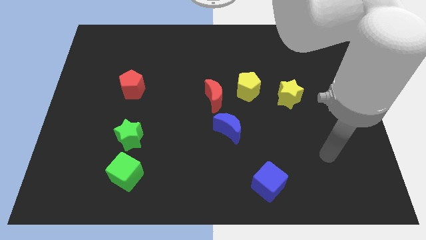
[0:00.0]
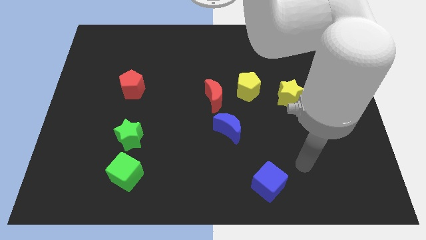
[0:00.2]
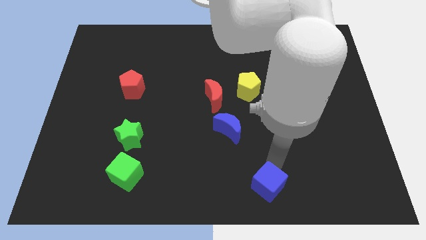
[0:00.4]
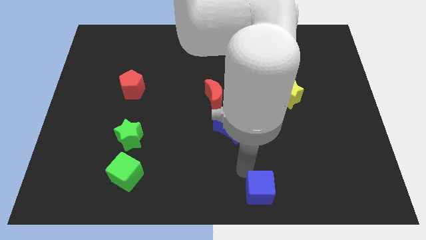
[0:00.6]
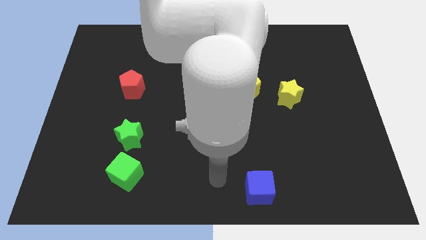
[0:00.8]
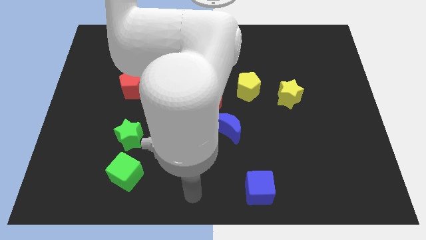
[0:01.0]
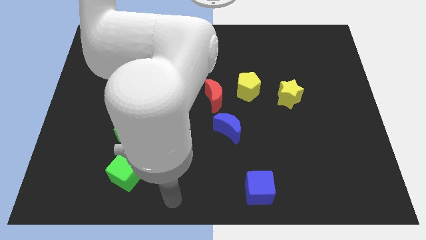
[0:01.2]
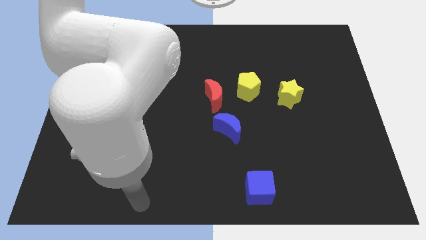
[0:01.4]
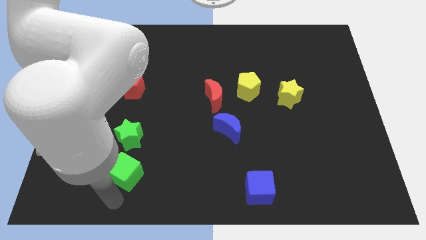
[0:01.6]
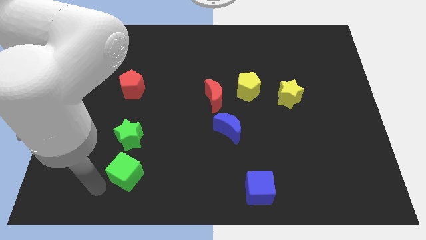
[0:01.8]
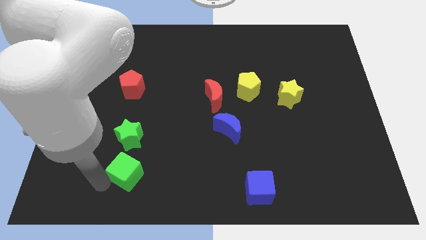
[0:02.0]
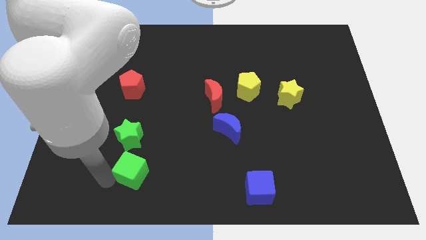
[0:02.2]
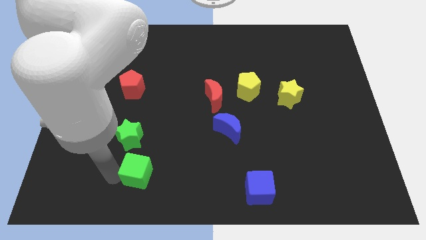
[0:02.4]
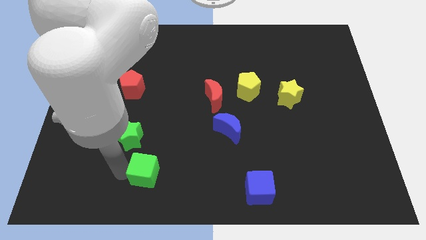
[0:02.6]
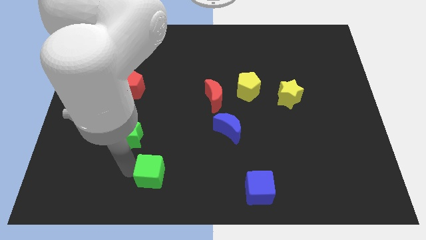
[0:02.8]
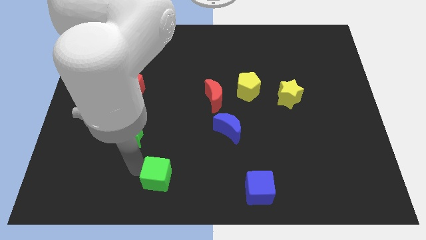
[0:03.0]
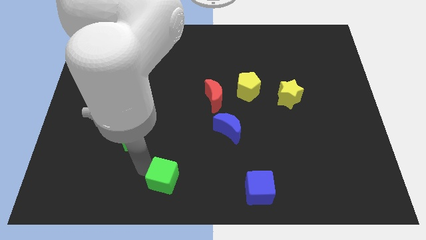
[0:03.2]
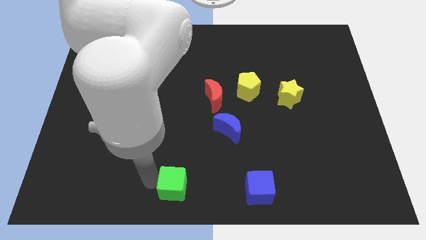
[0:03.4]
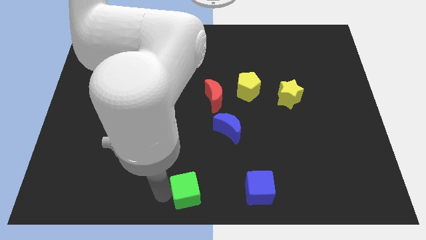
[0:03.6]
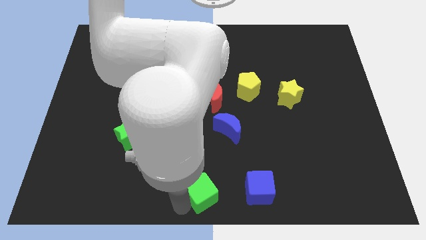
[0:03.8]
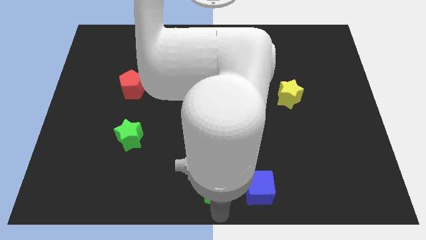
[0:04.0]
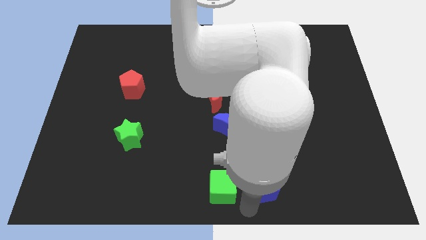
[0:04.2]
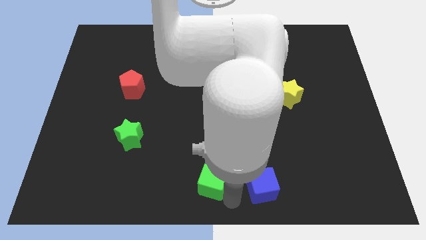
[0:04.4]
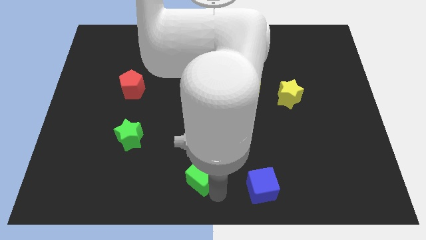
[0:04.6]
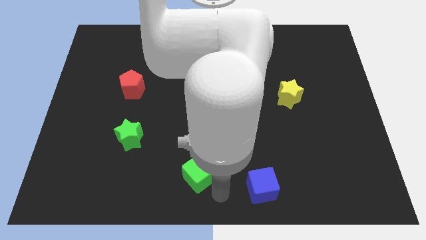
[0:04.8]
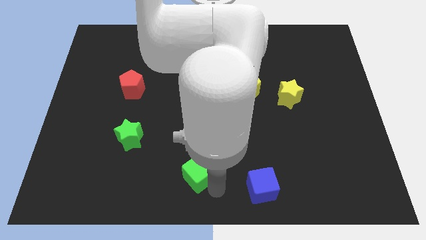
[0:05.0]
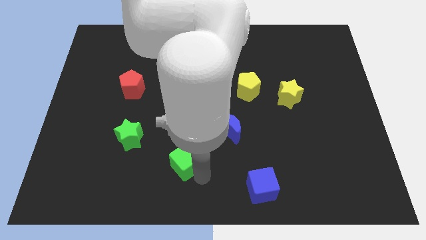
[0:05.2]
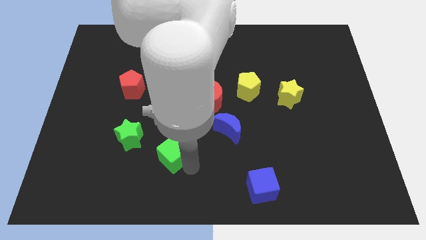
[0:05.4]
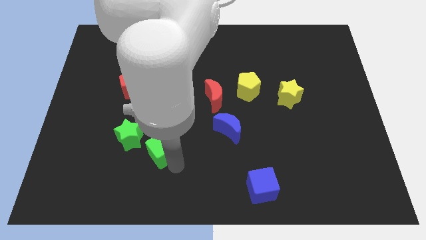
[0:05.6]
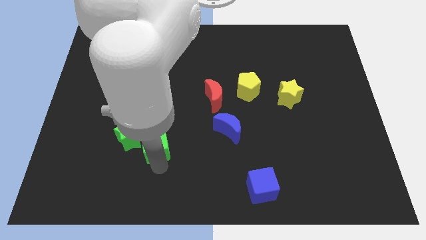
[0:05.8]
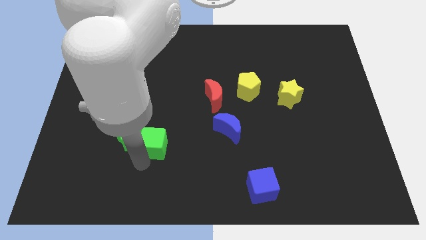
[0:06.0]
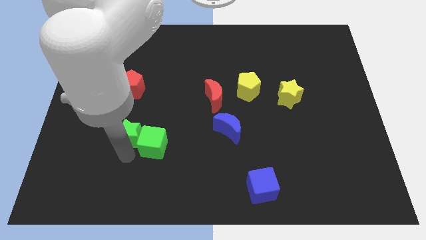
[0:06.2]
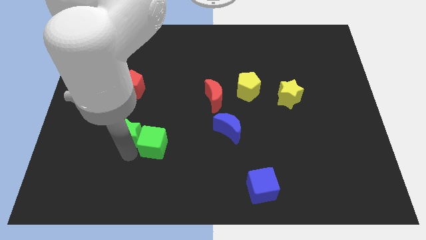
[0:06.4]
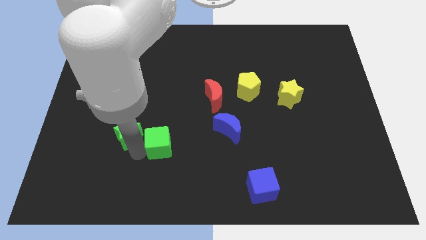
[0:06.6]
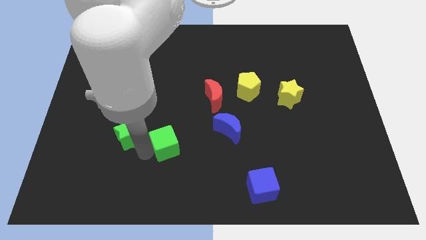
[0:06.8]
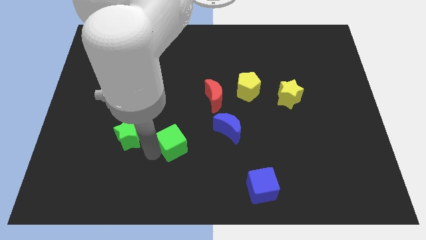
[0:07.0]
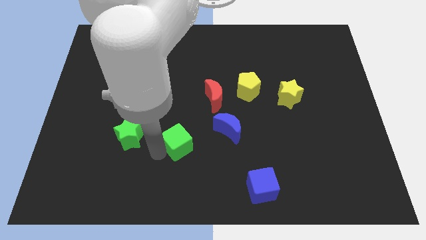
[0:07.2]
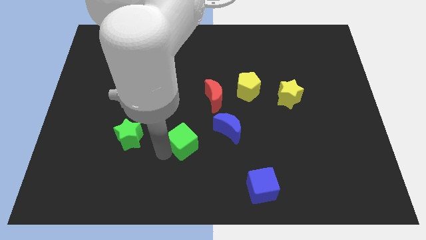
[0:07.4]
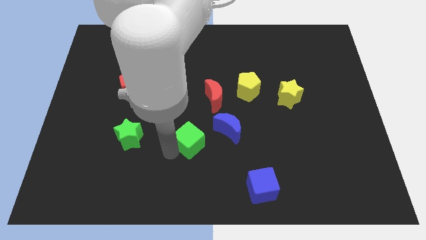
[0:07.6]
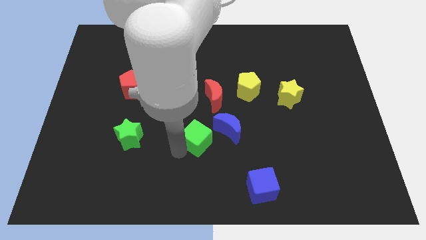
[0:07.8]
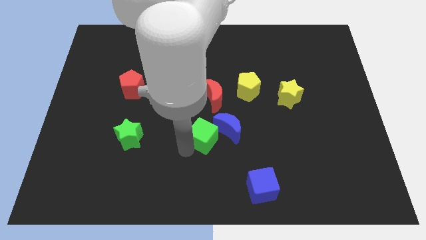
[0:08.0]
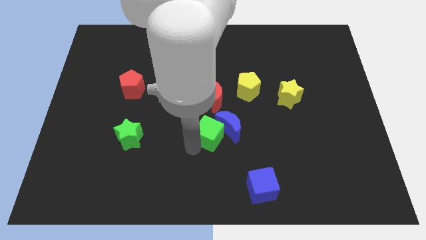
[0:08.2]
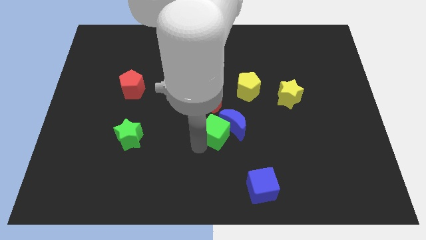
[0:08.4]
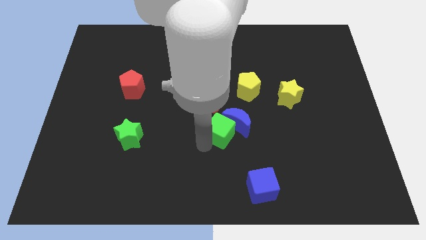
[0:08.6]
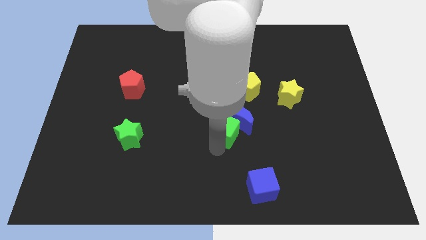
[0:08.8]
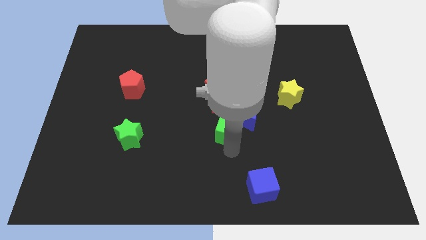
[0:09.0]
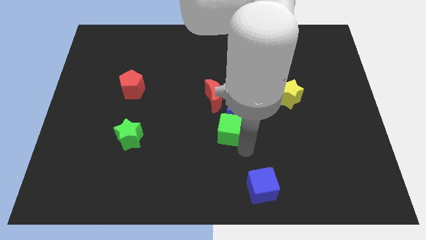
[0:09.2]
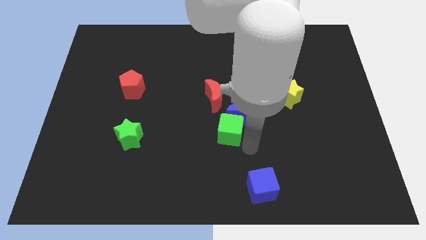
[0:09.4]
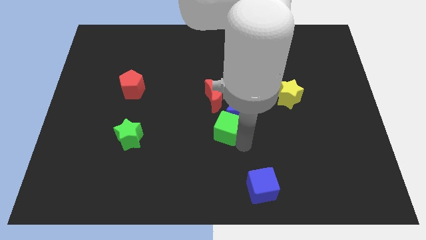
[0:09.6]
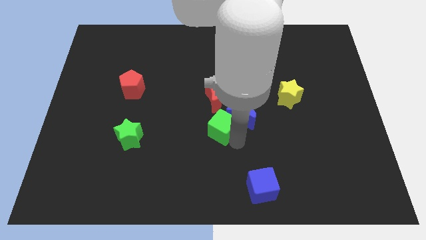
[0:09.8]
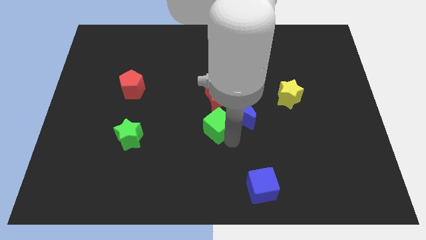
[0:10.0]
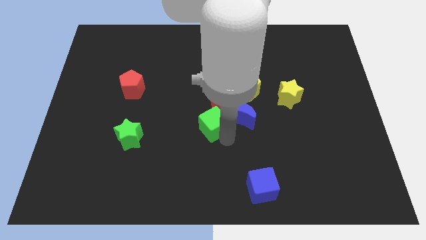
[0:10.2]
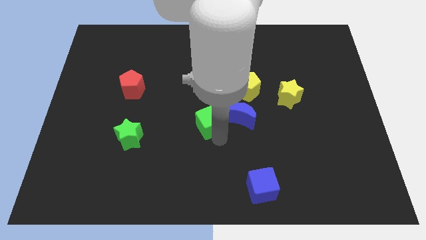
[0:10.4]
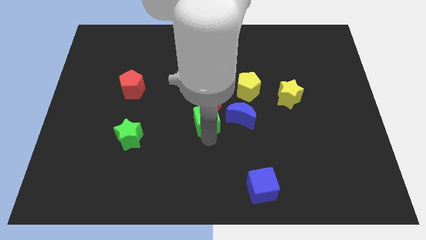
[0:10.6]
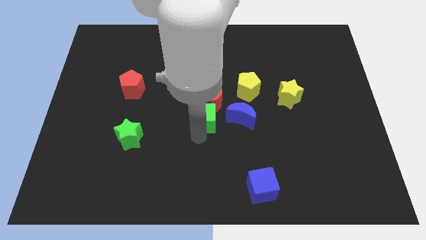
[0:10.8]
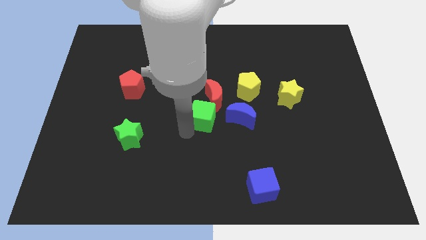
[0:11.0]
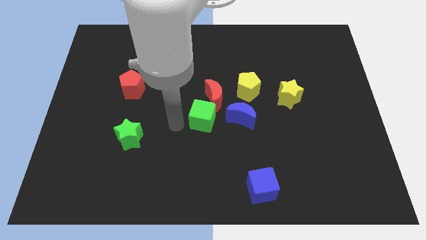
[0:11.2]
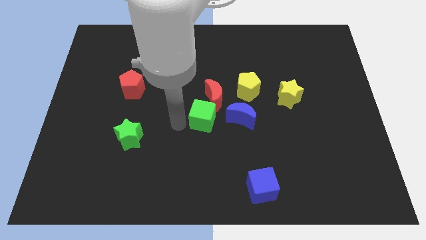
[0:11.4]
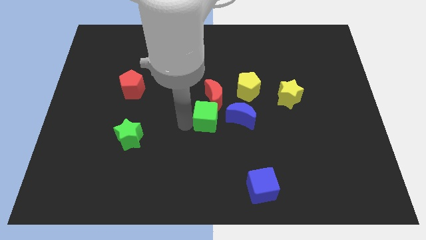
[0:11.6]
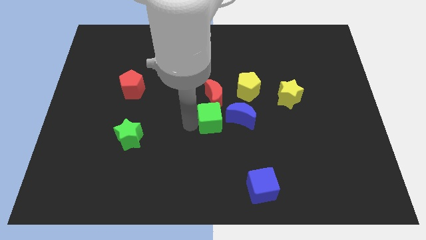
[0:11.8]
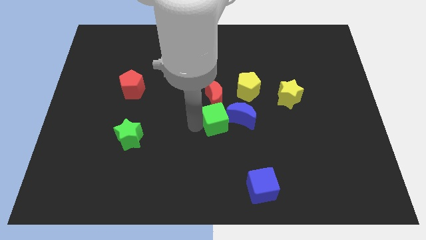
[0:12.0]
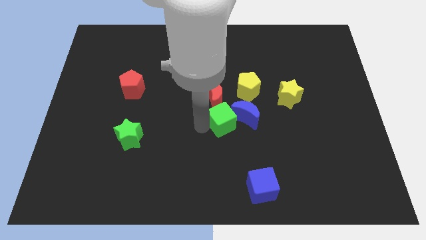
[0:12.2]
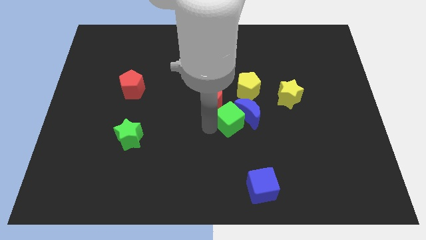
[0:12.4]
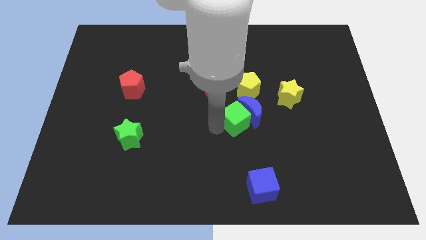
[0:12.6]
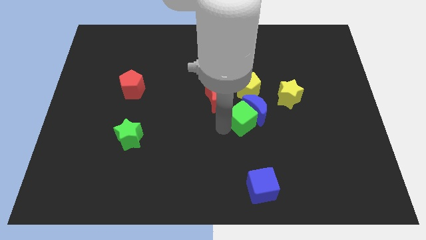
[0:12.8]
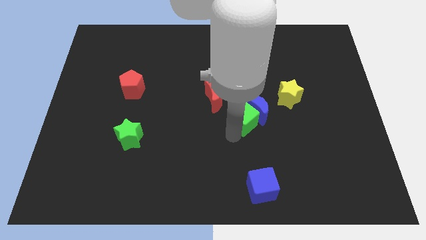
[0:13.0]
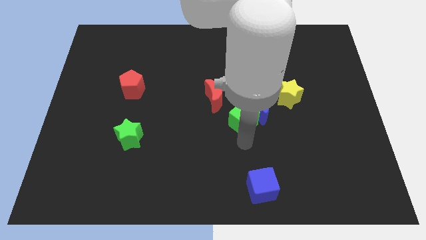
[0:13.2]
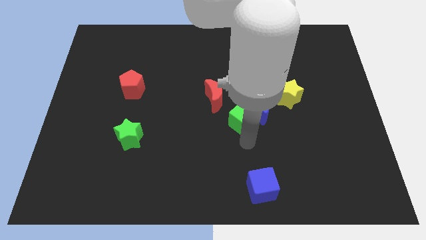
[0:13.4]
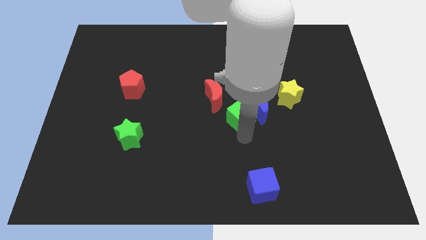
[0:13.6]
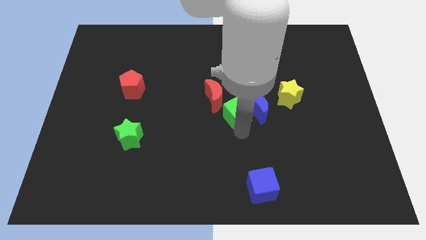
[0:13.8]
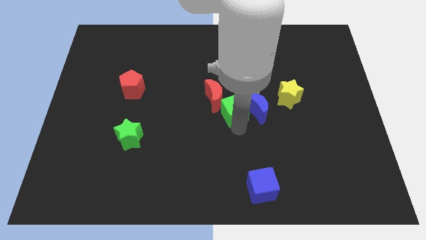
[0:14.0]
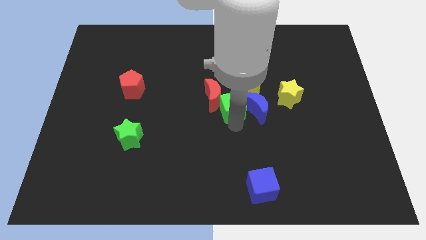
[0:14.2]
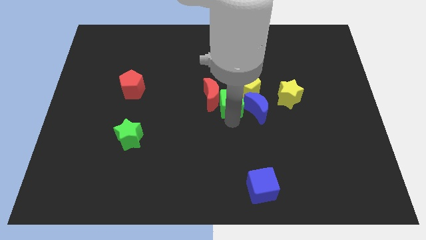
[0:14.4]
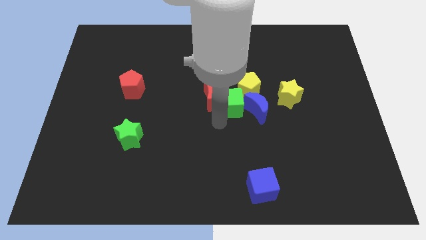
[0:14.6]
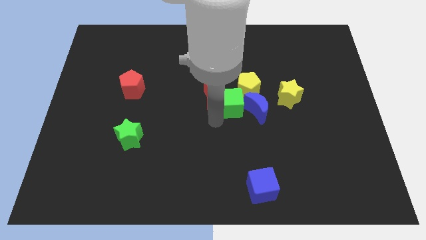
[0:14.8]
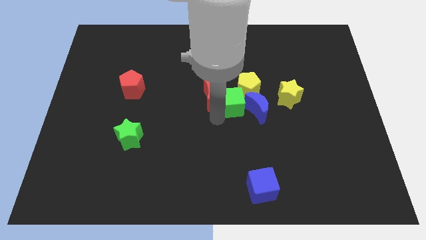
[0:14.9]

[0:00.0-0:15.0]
slide the green cube close to the yellow pentagon

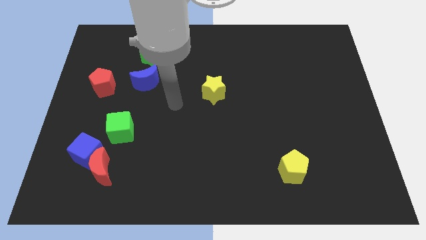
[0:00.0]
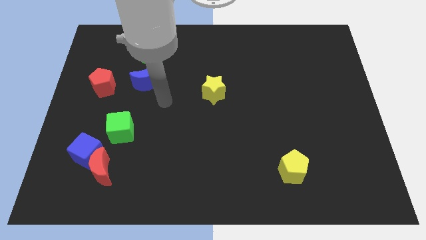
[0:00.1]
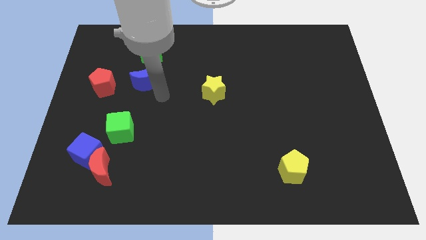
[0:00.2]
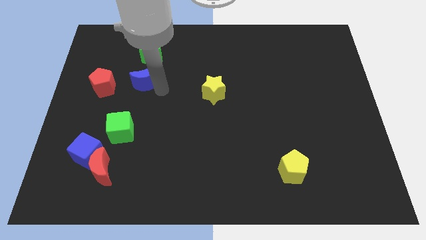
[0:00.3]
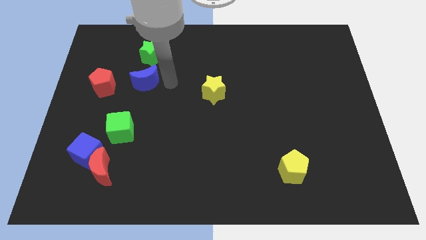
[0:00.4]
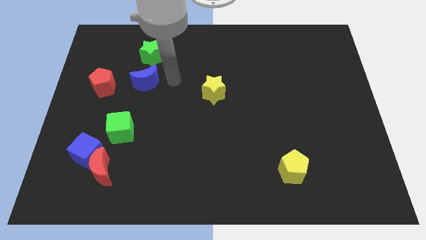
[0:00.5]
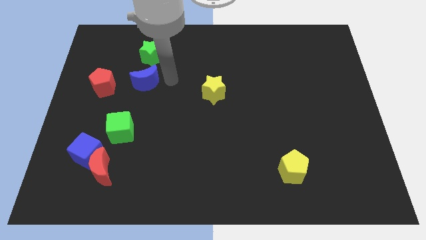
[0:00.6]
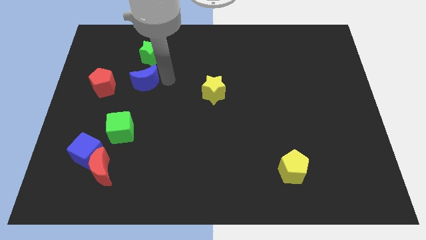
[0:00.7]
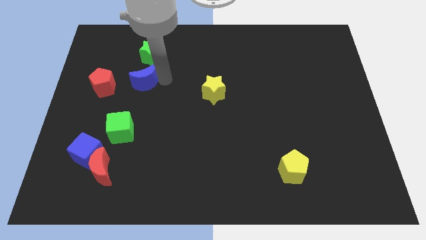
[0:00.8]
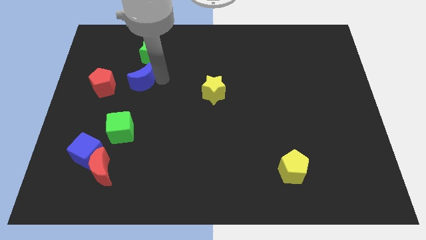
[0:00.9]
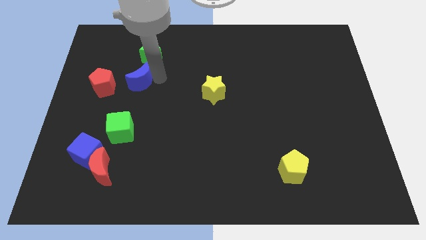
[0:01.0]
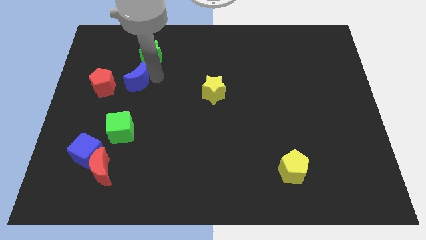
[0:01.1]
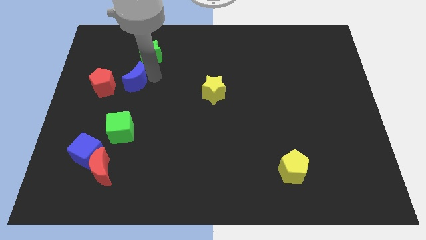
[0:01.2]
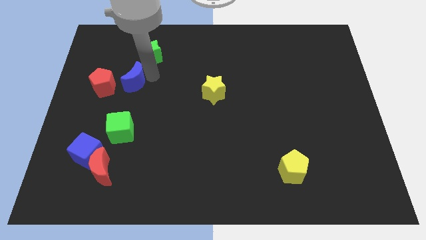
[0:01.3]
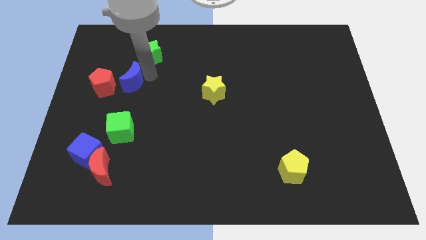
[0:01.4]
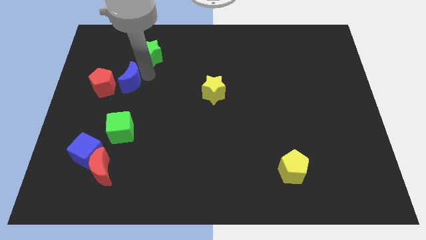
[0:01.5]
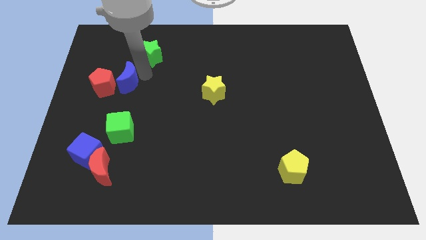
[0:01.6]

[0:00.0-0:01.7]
move the blue moon close to the red pentagon
